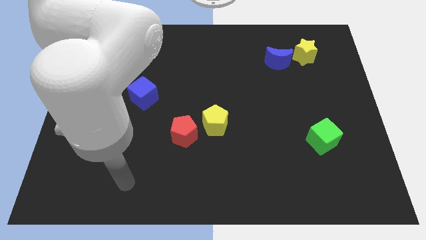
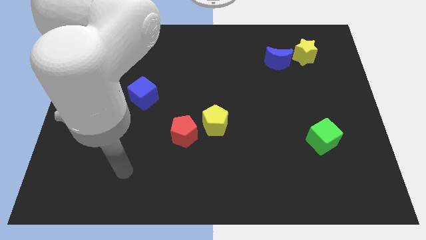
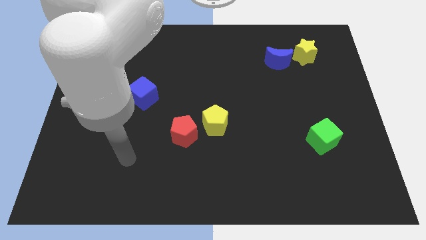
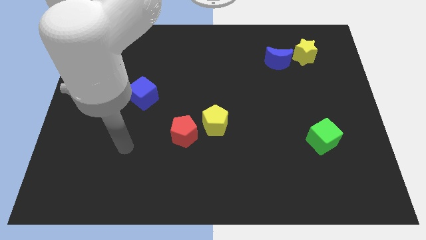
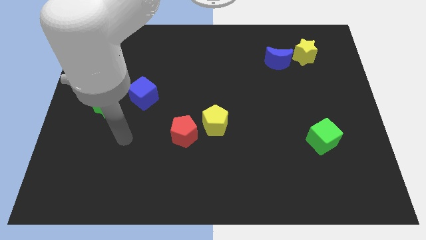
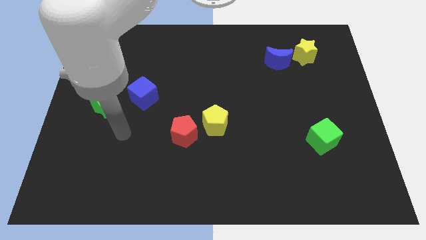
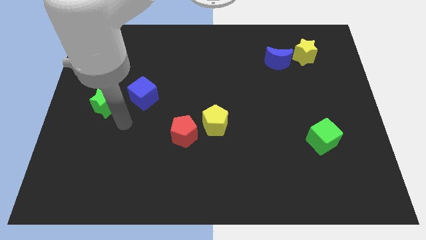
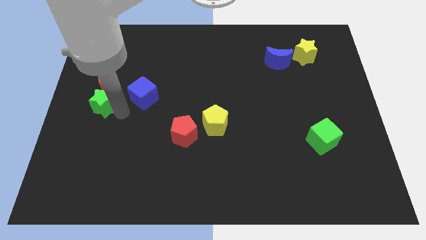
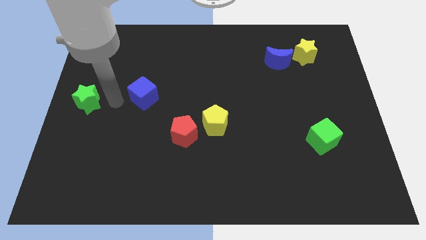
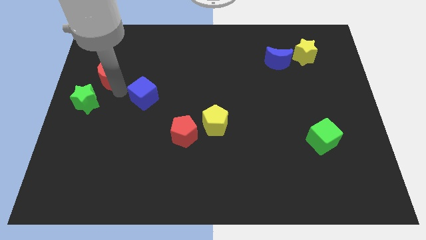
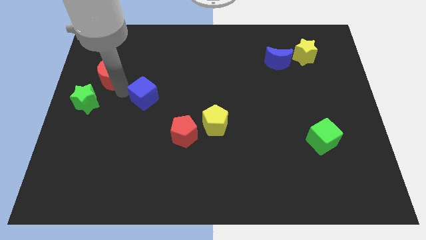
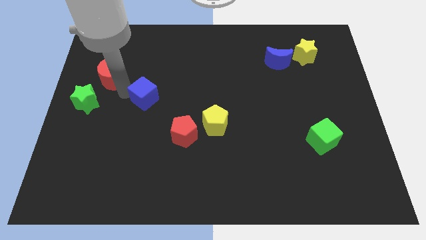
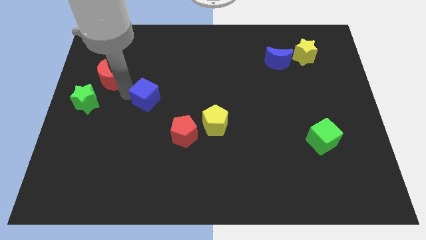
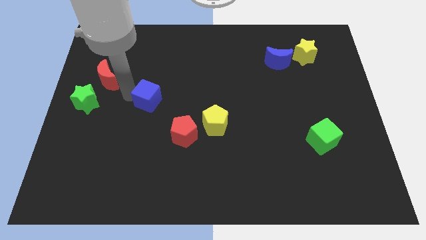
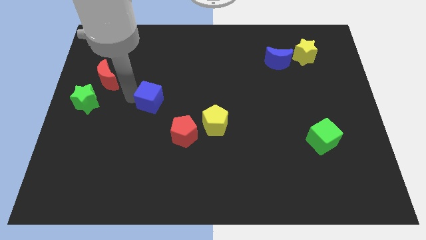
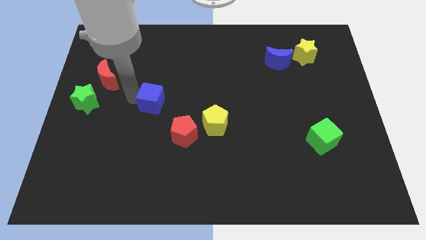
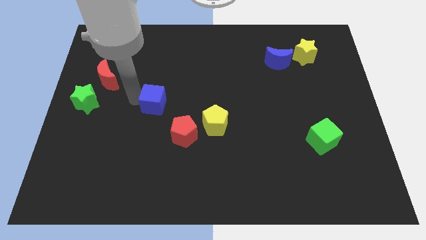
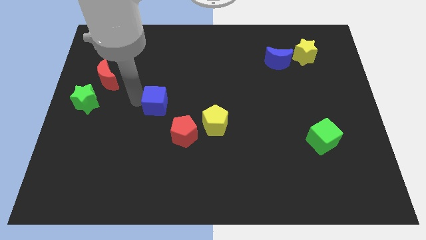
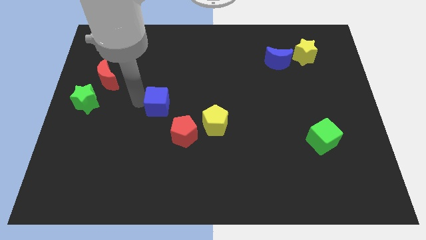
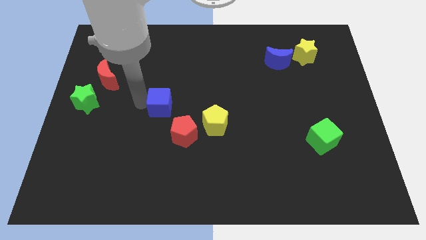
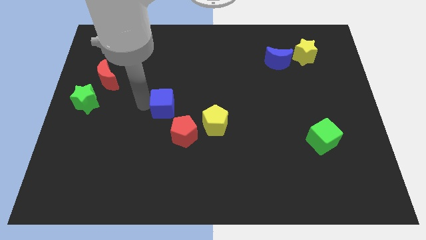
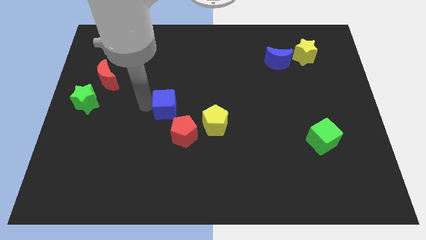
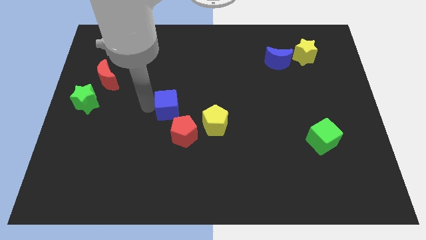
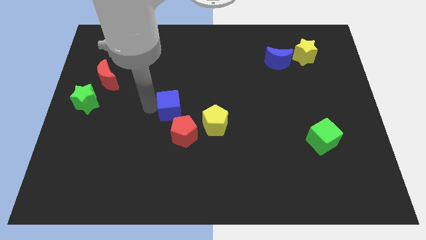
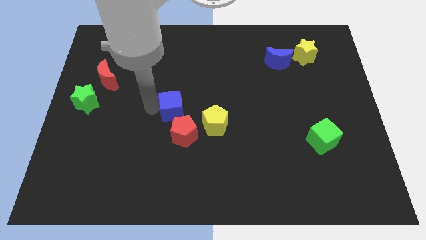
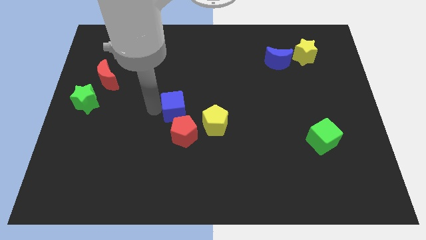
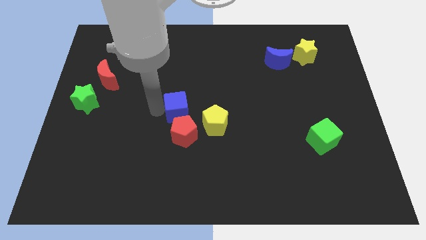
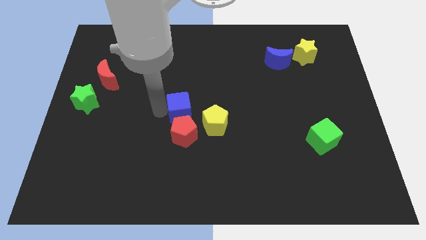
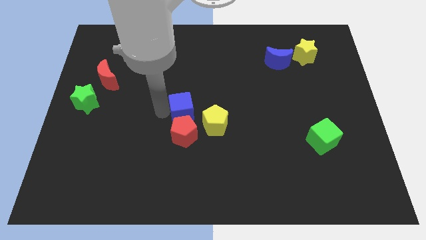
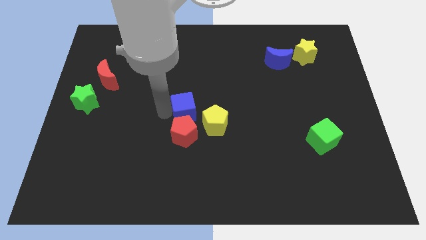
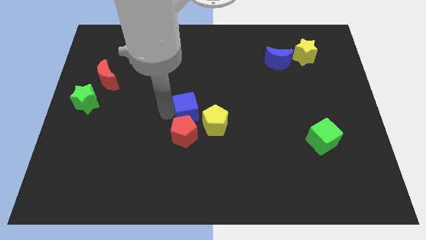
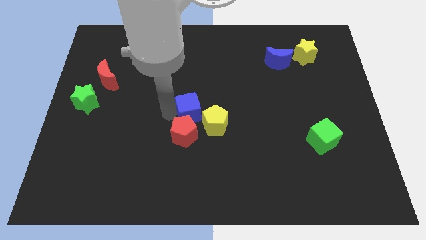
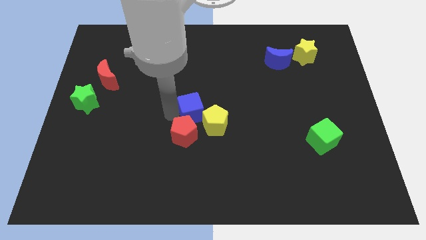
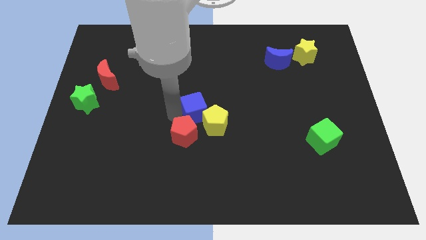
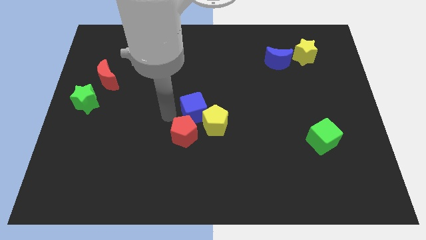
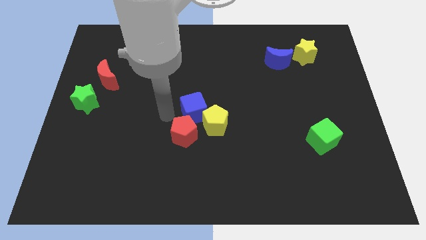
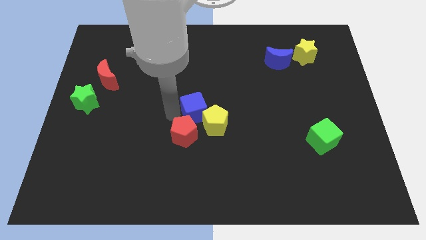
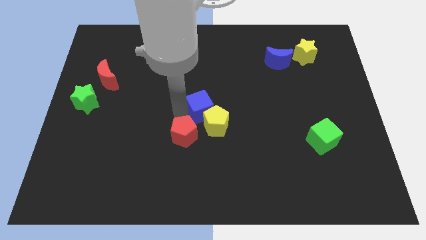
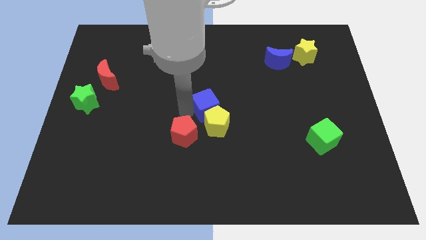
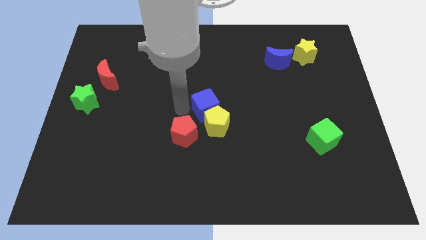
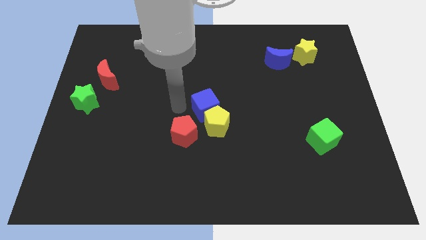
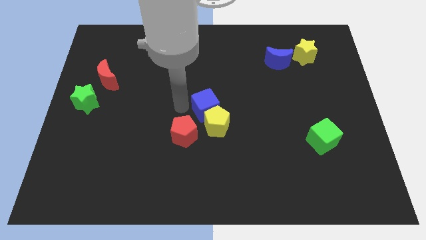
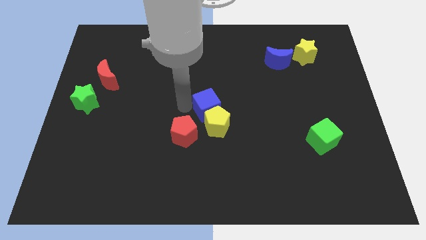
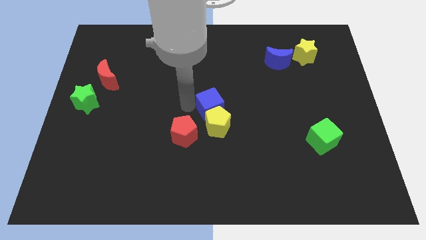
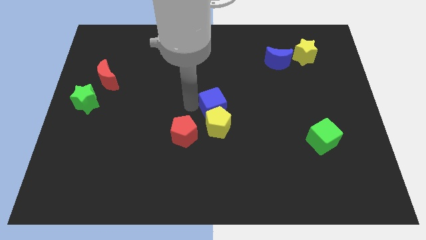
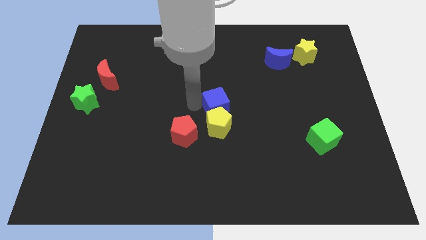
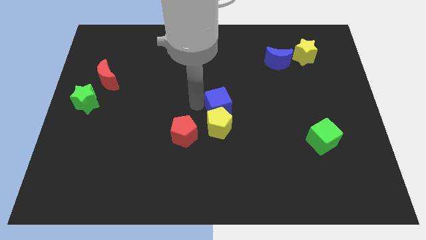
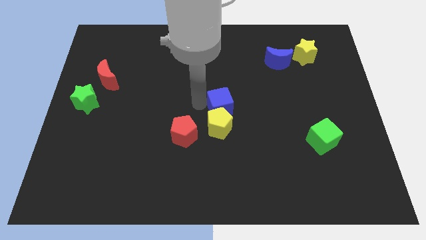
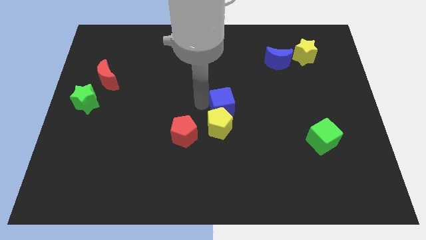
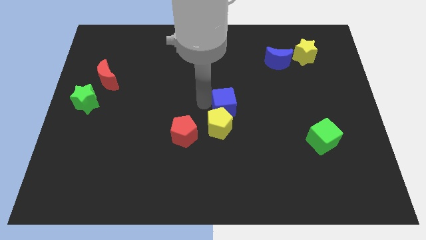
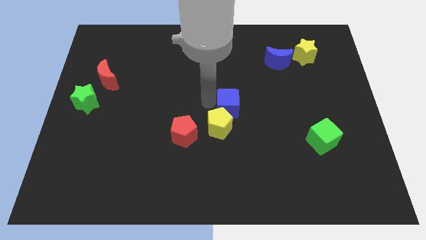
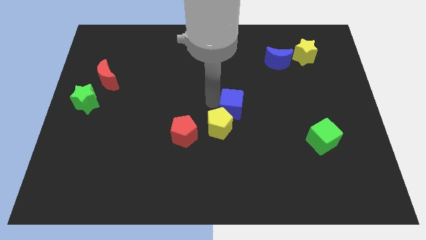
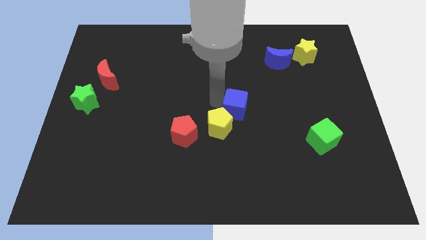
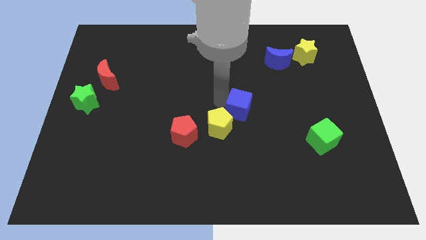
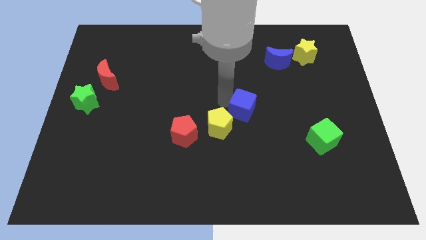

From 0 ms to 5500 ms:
move the blue cube just right of the yellow pentagon

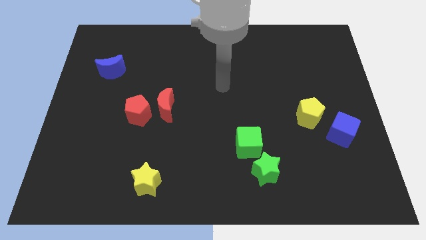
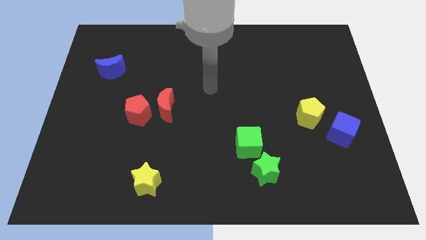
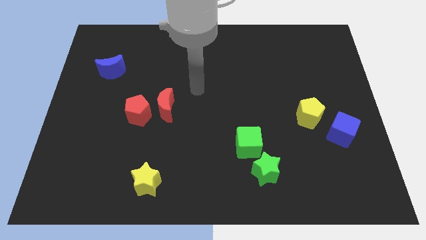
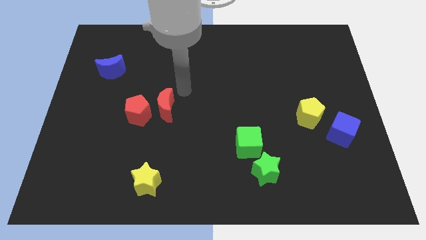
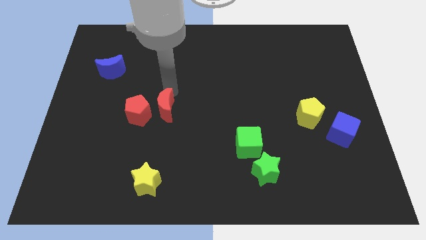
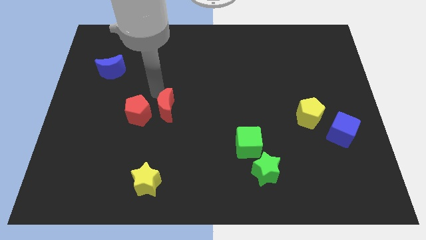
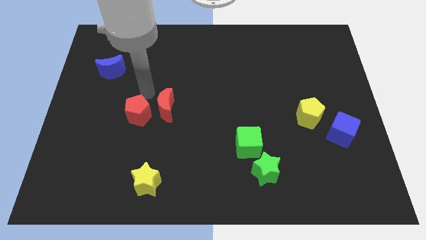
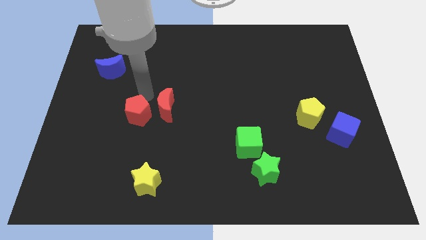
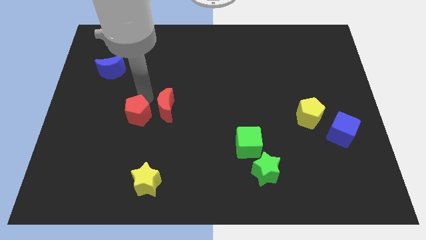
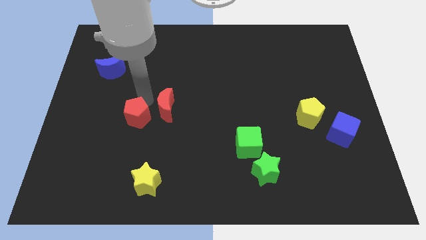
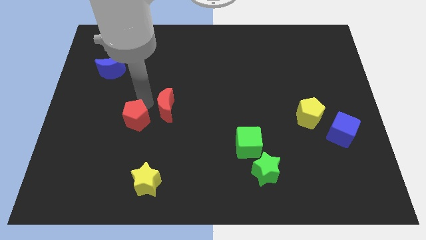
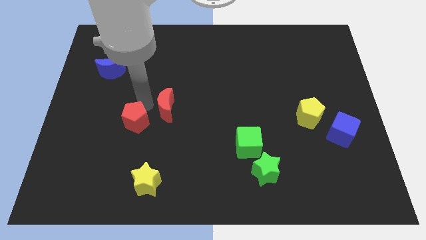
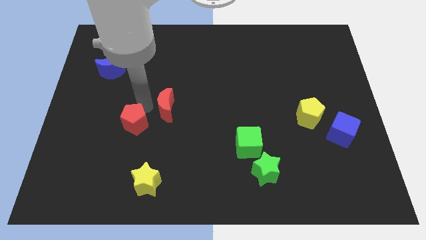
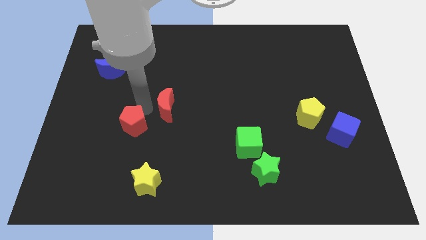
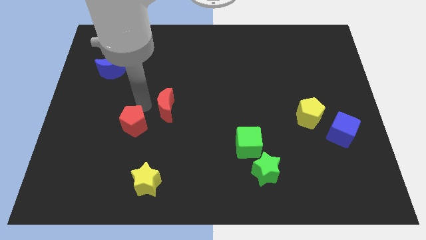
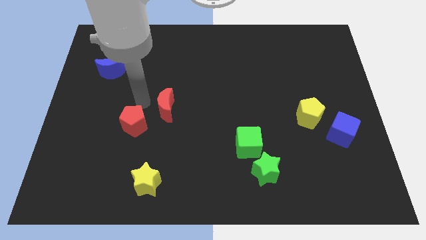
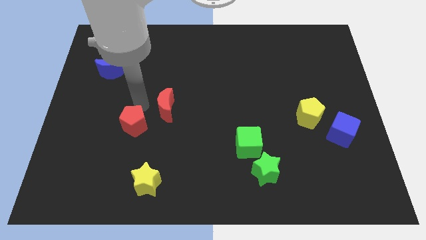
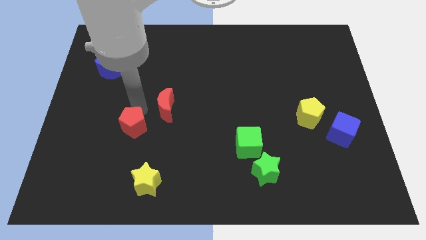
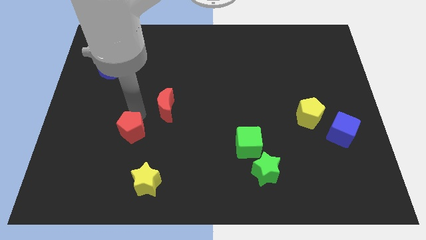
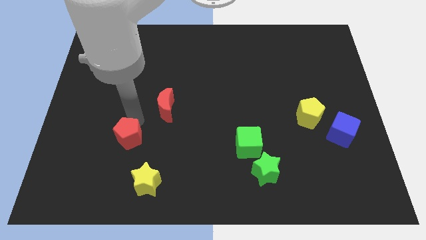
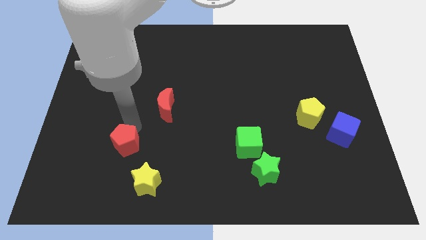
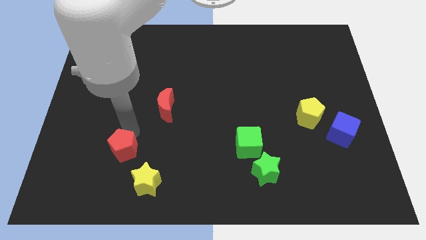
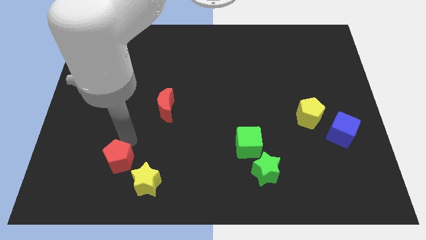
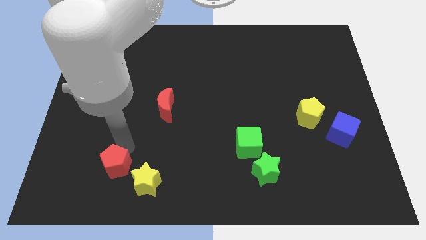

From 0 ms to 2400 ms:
slide the red pentagon left of the yellow star
